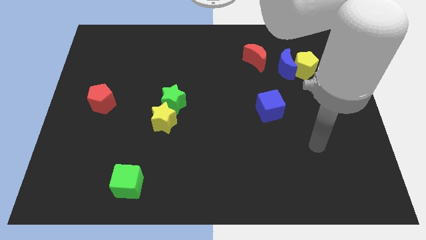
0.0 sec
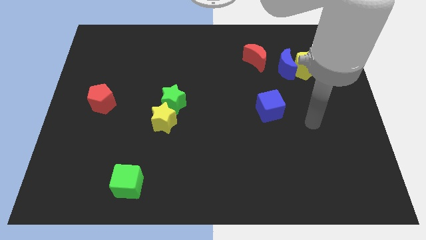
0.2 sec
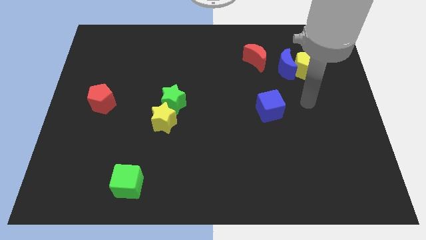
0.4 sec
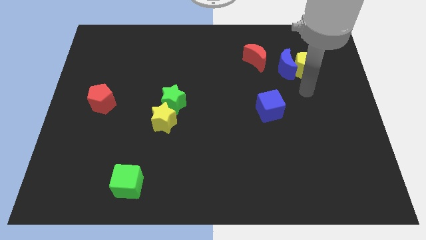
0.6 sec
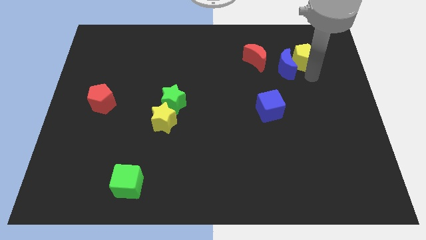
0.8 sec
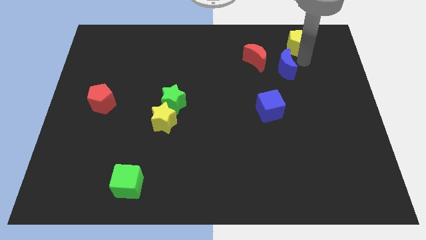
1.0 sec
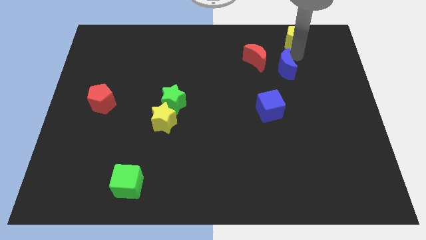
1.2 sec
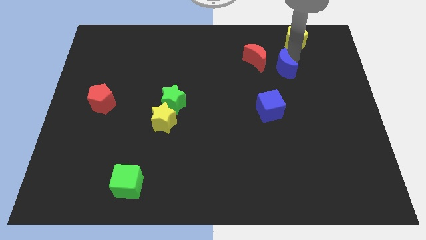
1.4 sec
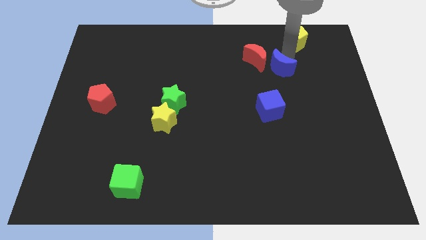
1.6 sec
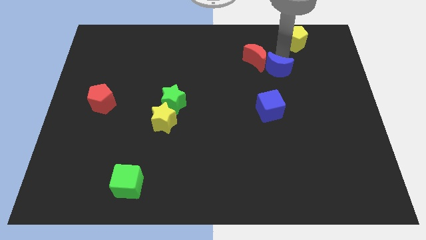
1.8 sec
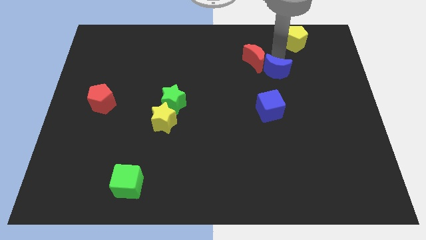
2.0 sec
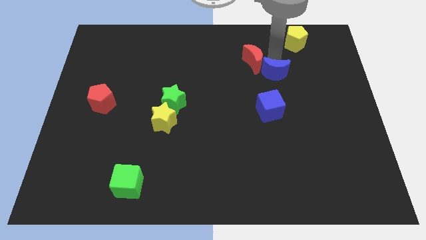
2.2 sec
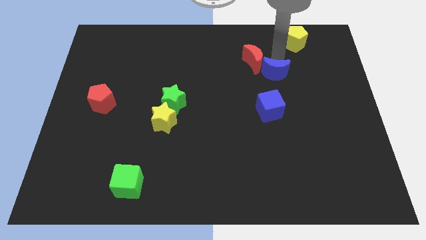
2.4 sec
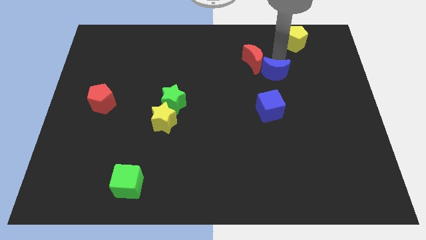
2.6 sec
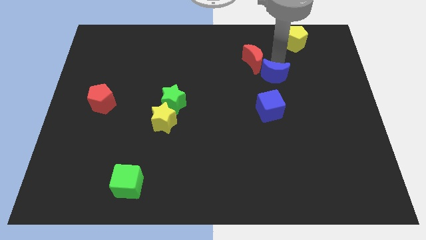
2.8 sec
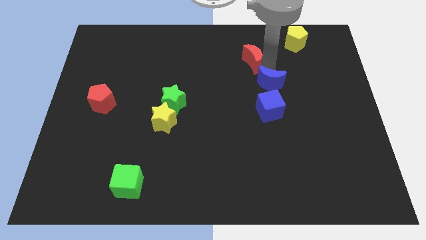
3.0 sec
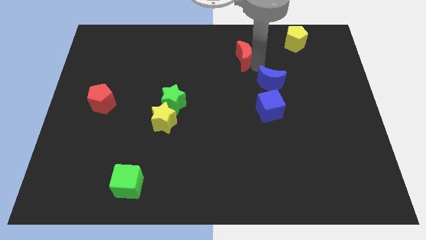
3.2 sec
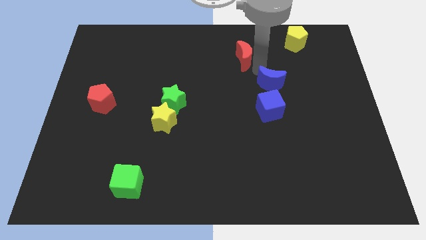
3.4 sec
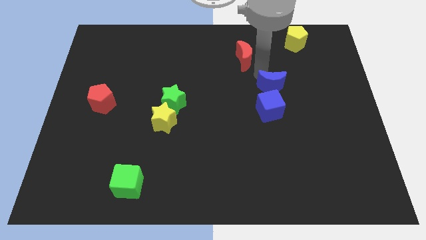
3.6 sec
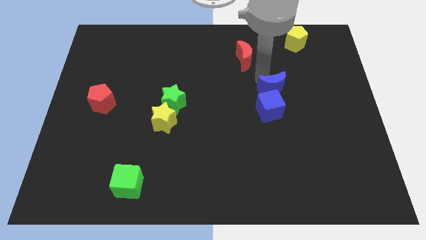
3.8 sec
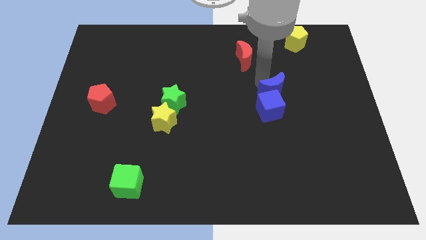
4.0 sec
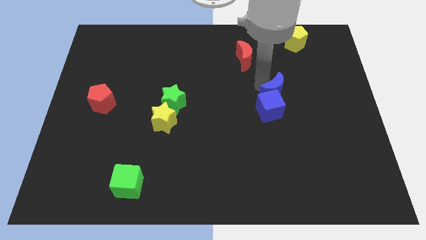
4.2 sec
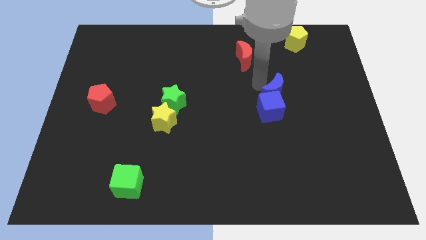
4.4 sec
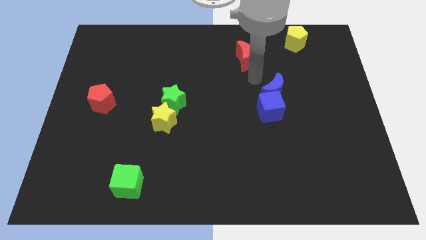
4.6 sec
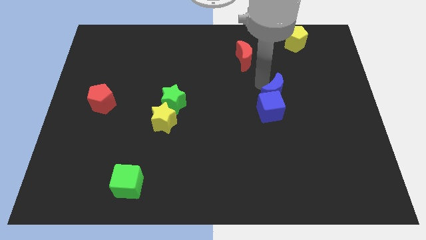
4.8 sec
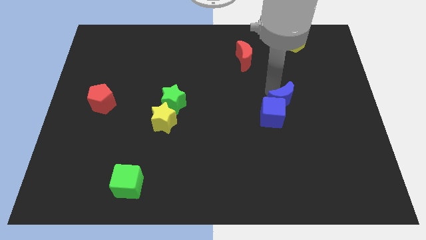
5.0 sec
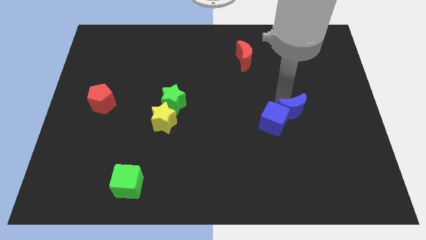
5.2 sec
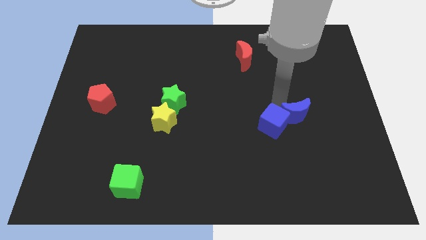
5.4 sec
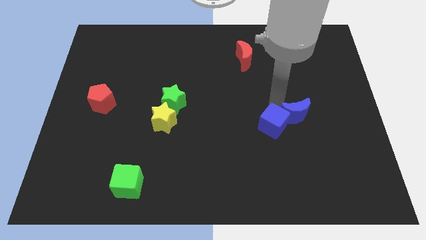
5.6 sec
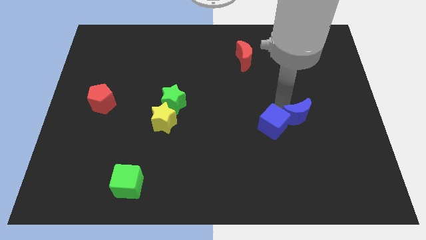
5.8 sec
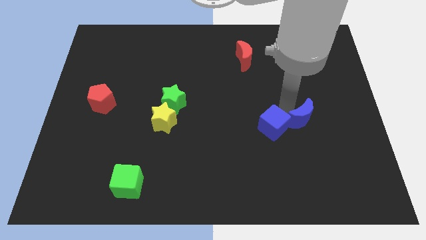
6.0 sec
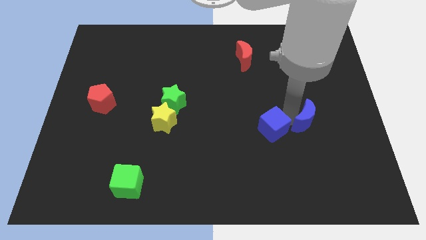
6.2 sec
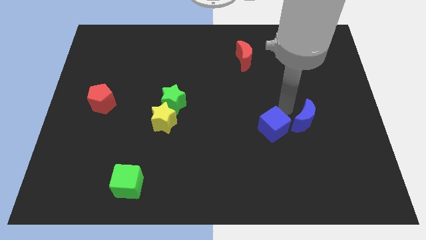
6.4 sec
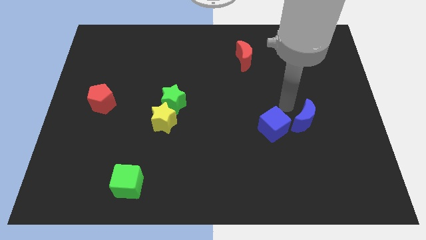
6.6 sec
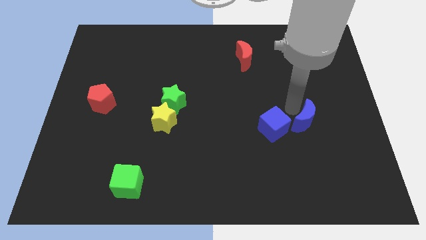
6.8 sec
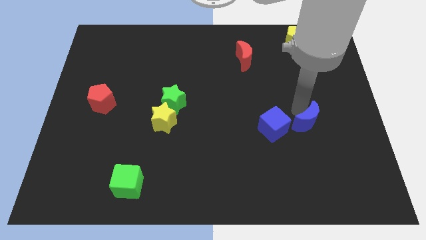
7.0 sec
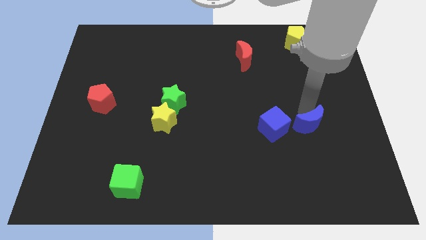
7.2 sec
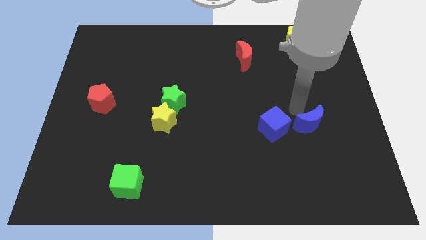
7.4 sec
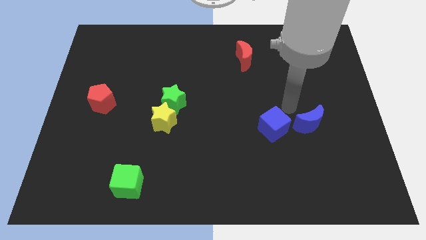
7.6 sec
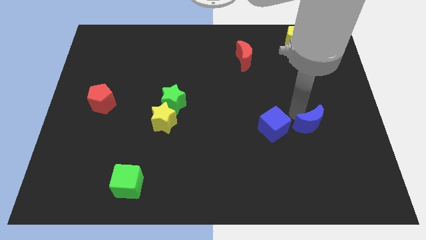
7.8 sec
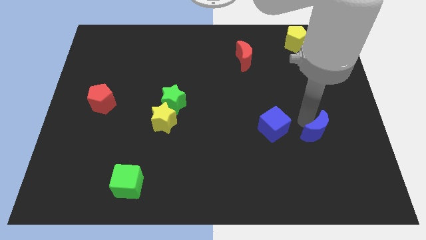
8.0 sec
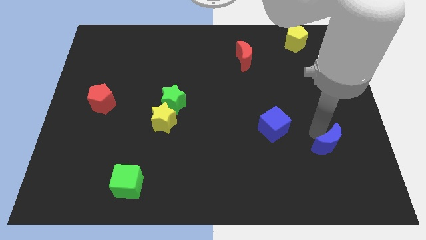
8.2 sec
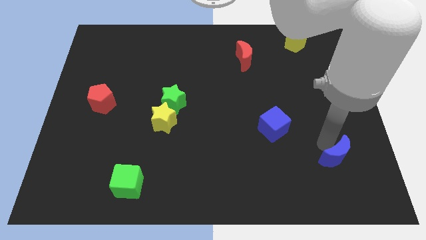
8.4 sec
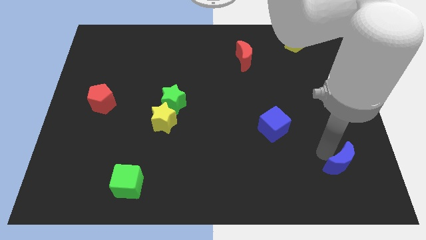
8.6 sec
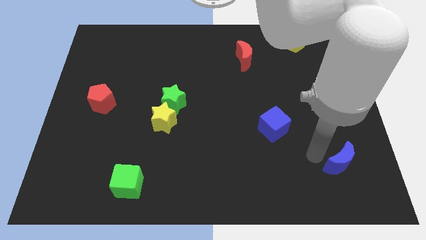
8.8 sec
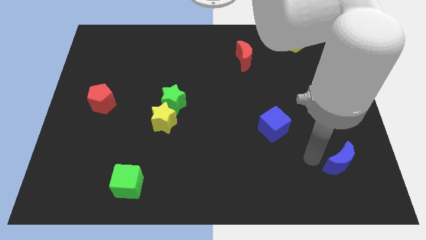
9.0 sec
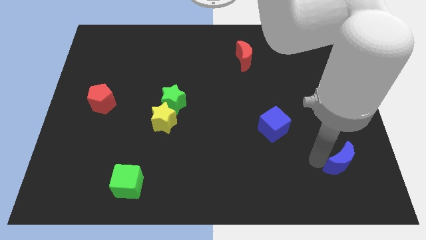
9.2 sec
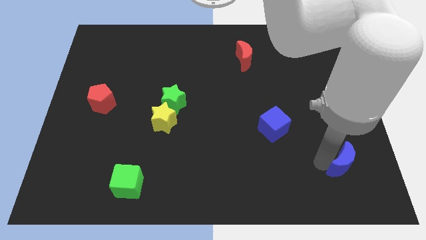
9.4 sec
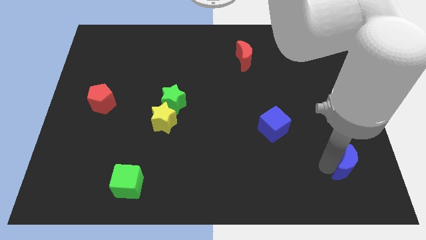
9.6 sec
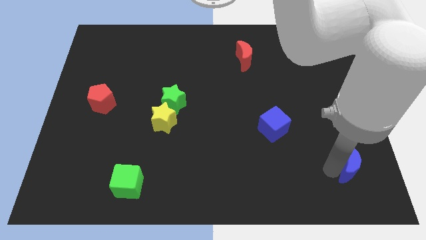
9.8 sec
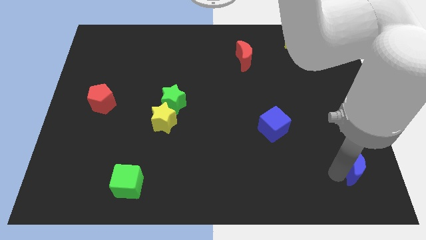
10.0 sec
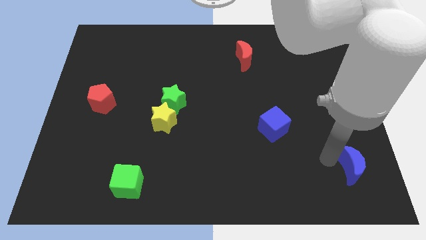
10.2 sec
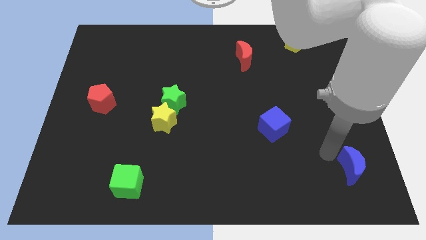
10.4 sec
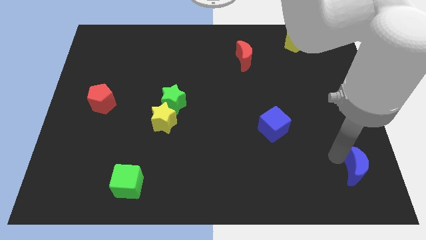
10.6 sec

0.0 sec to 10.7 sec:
push the blue moon to the bottom right corner

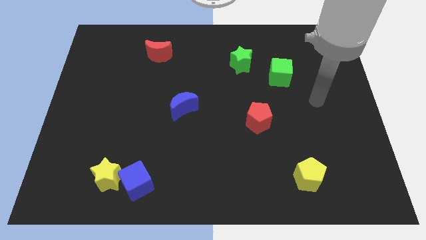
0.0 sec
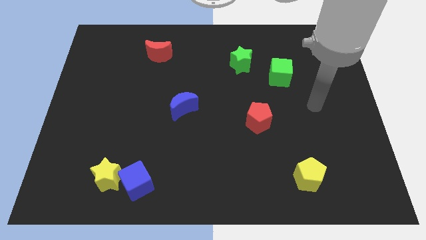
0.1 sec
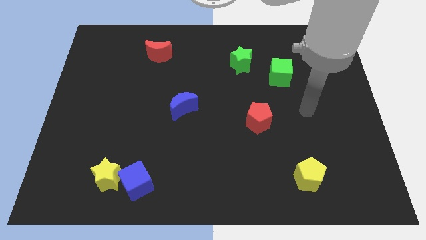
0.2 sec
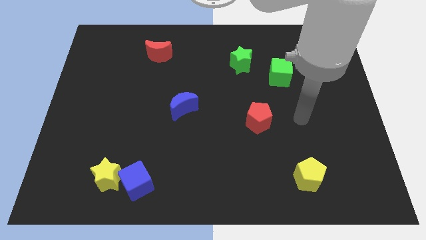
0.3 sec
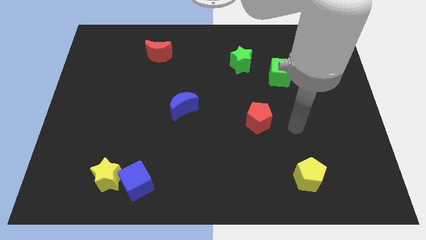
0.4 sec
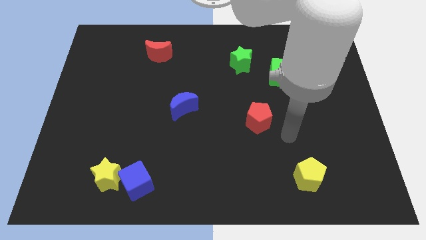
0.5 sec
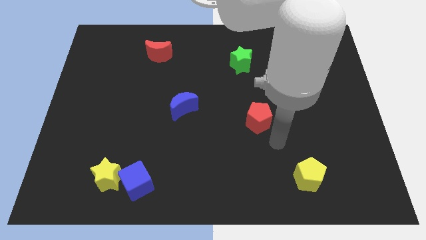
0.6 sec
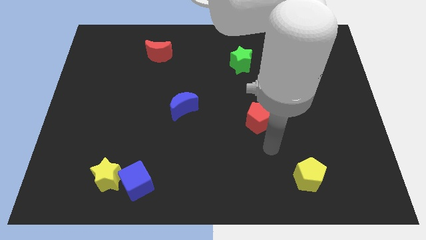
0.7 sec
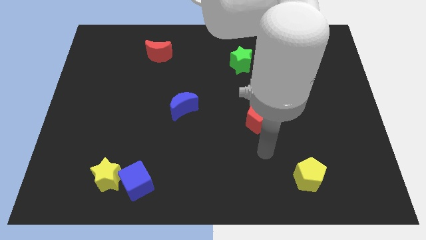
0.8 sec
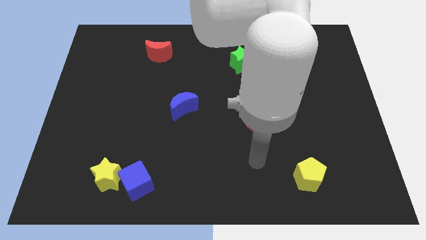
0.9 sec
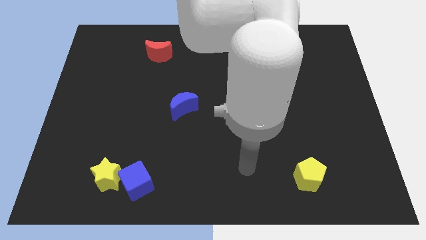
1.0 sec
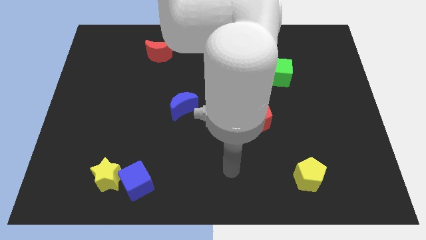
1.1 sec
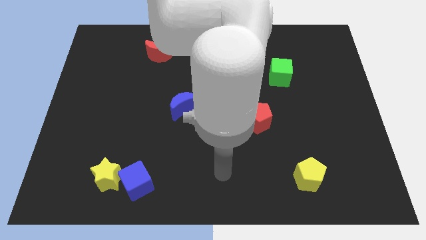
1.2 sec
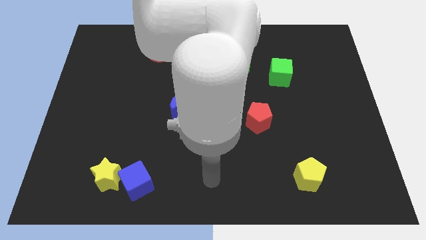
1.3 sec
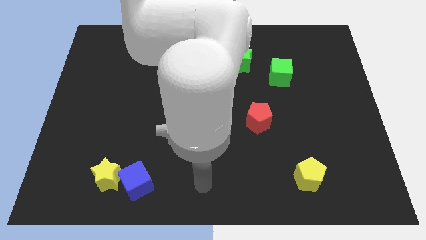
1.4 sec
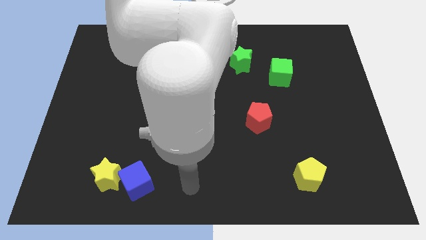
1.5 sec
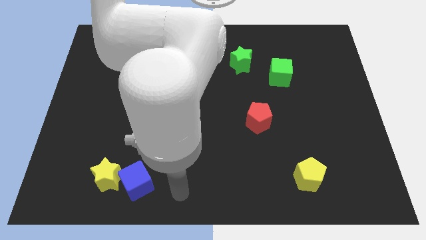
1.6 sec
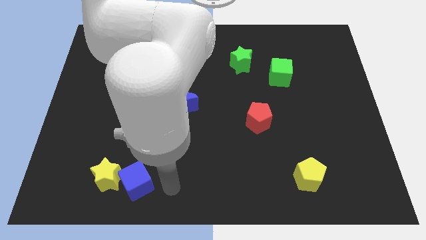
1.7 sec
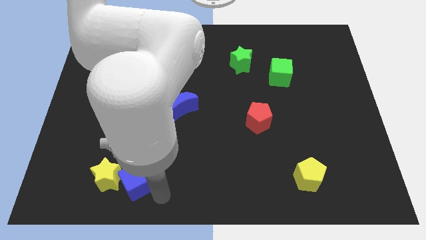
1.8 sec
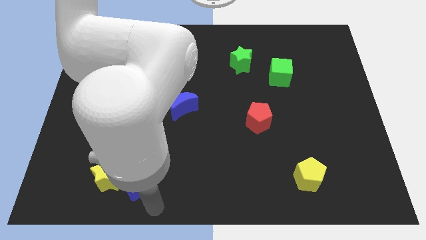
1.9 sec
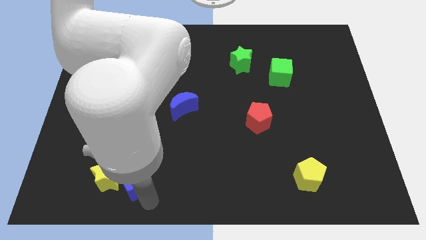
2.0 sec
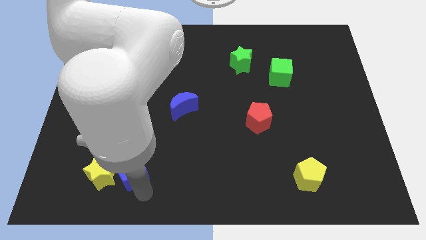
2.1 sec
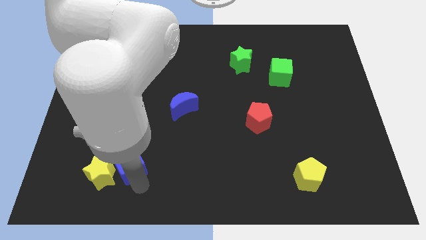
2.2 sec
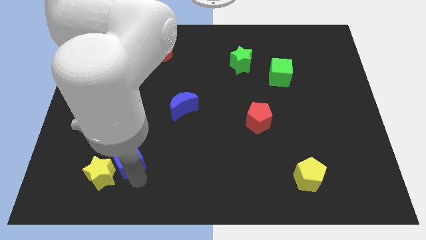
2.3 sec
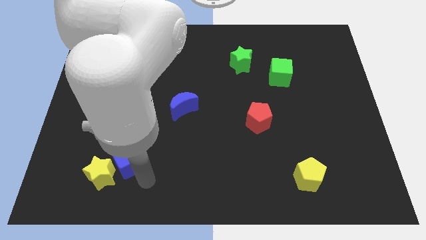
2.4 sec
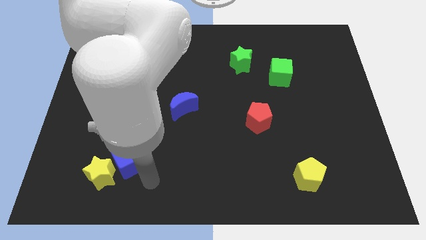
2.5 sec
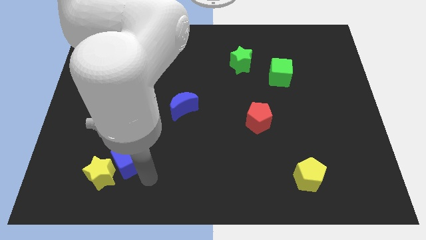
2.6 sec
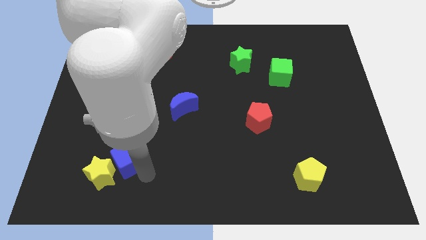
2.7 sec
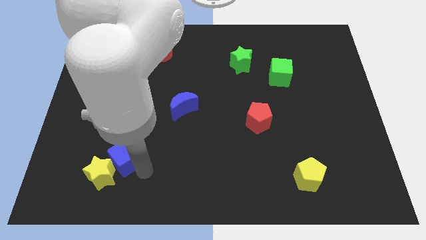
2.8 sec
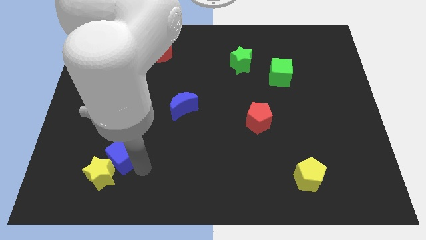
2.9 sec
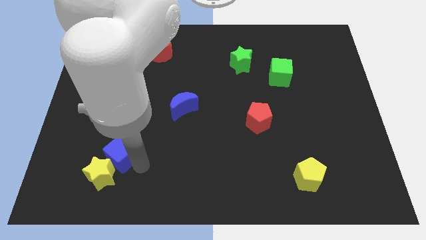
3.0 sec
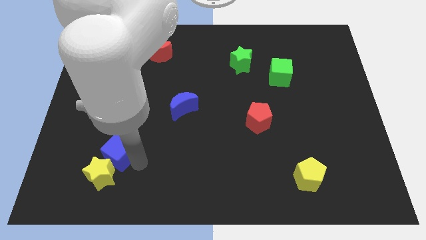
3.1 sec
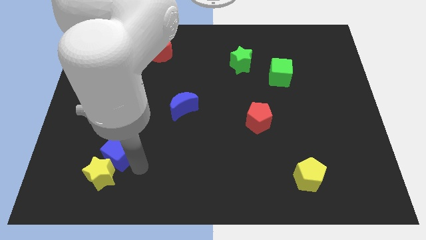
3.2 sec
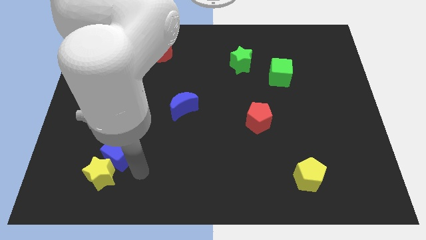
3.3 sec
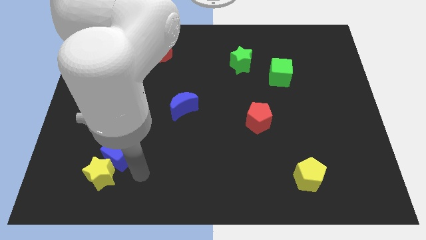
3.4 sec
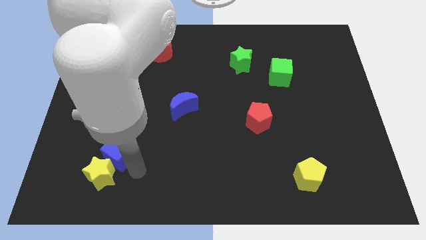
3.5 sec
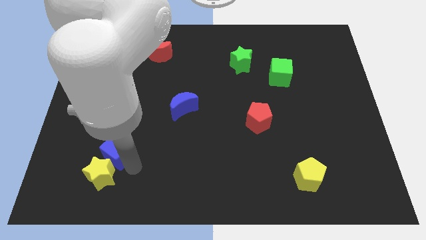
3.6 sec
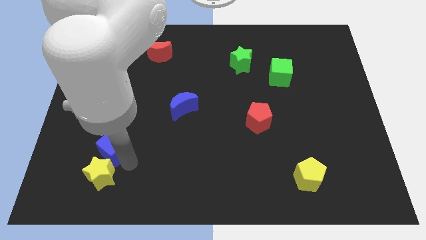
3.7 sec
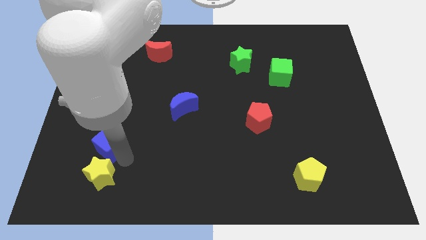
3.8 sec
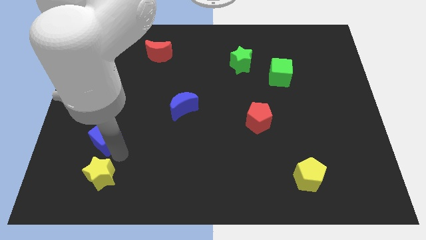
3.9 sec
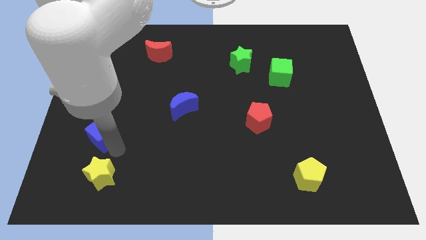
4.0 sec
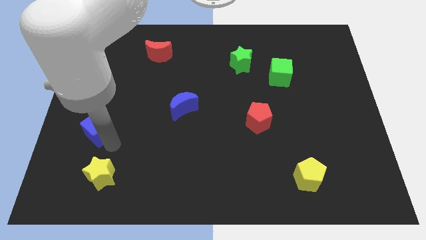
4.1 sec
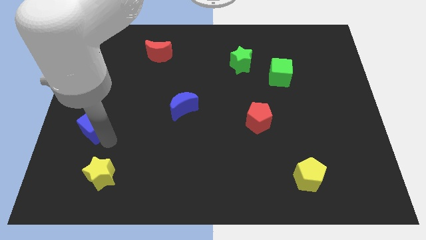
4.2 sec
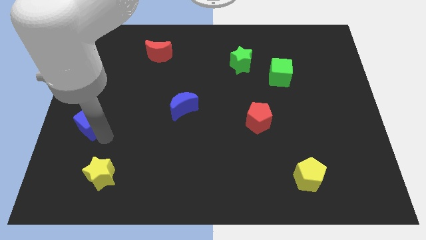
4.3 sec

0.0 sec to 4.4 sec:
move the blue cube to the left side
